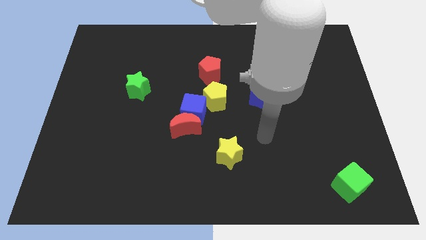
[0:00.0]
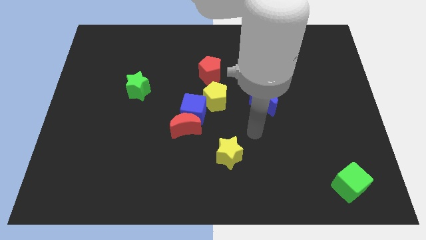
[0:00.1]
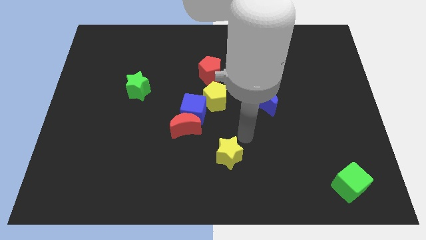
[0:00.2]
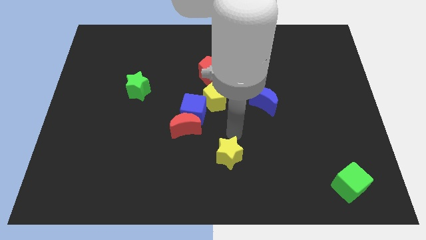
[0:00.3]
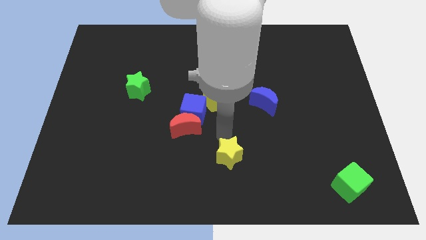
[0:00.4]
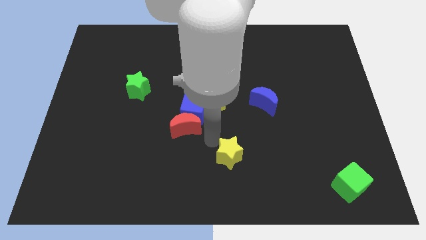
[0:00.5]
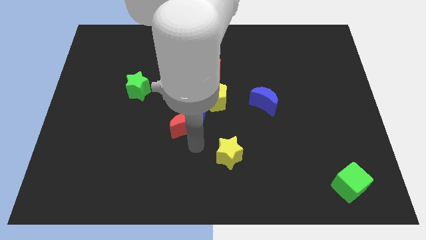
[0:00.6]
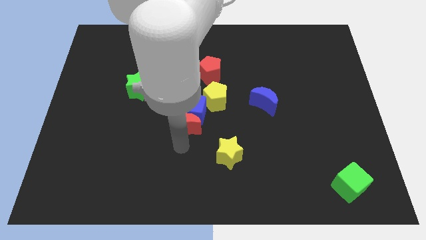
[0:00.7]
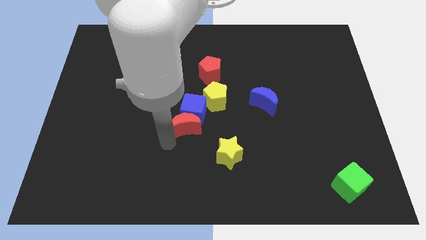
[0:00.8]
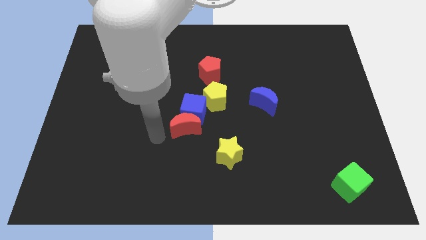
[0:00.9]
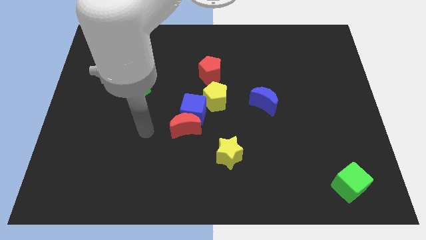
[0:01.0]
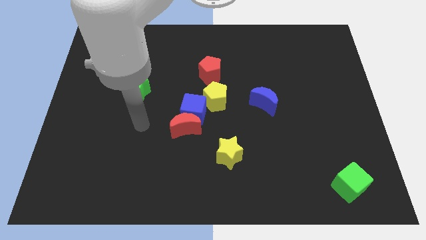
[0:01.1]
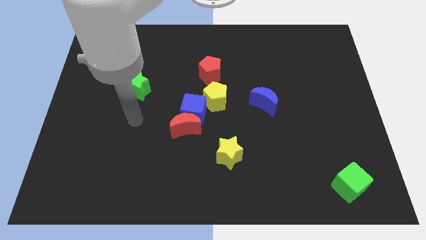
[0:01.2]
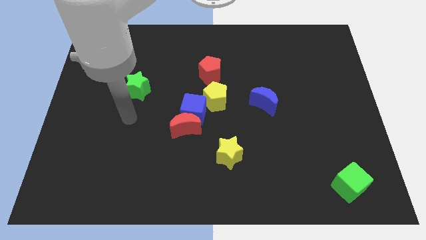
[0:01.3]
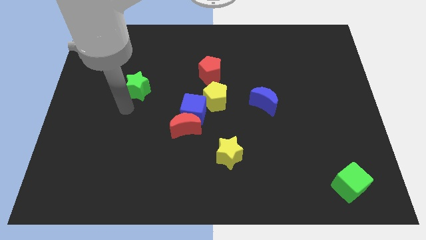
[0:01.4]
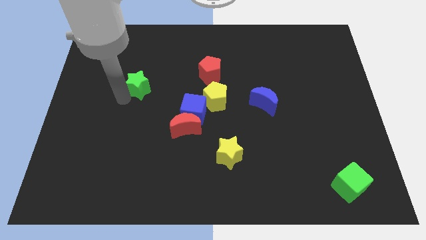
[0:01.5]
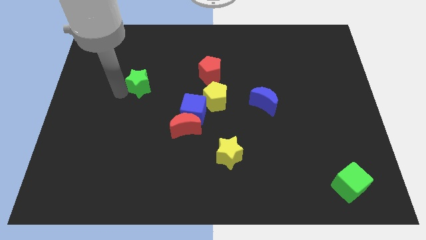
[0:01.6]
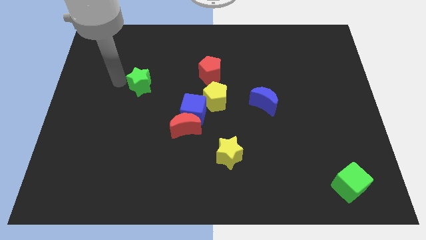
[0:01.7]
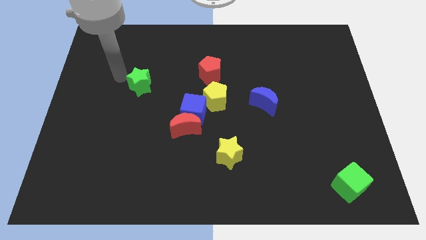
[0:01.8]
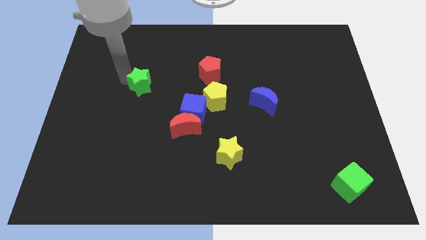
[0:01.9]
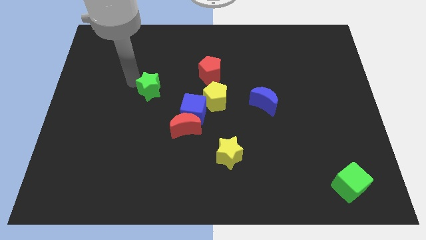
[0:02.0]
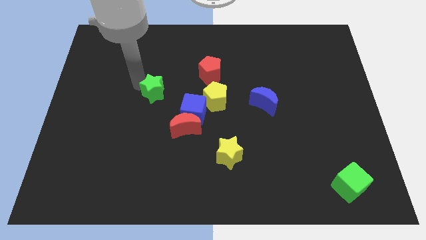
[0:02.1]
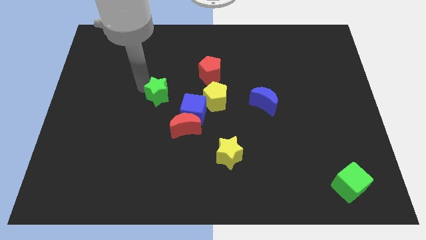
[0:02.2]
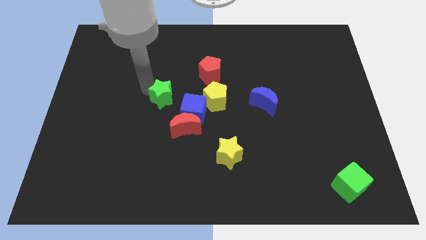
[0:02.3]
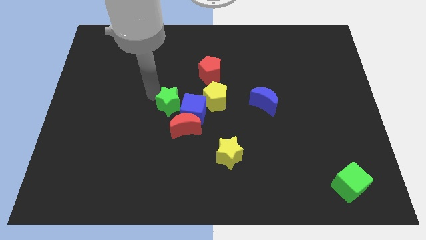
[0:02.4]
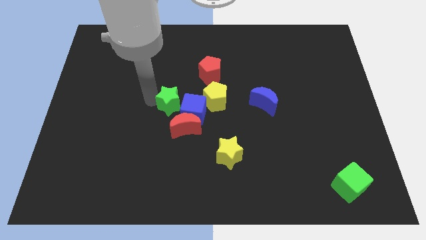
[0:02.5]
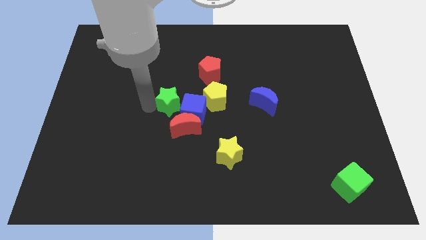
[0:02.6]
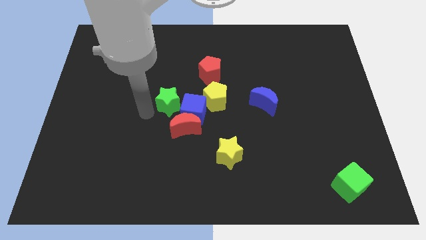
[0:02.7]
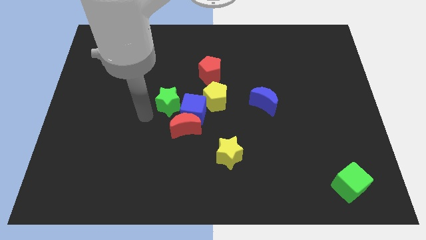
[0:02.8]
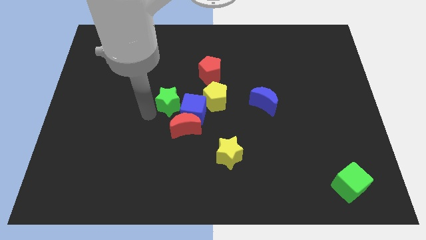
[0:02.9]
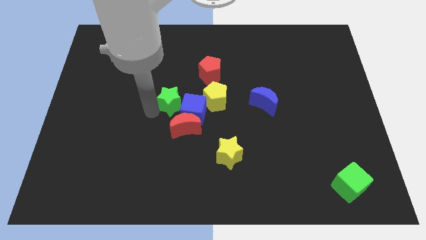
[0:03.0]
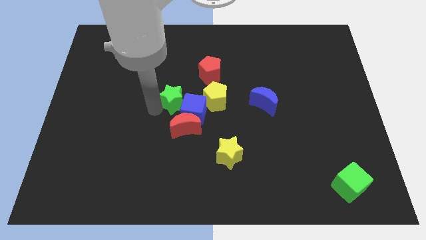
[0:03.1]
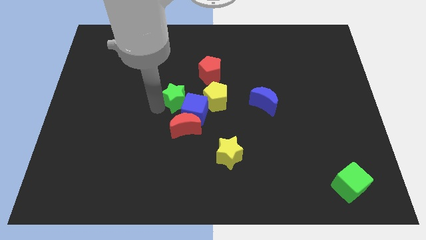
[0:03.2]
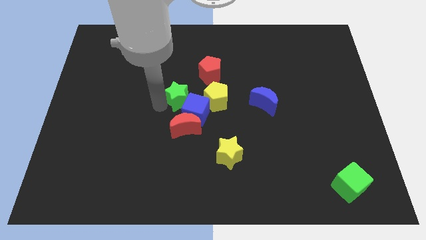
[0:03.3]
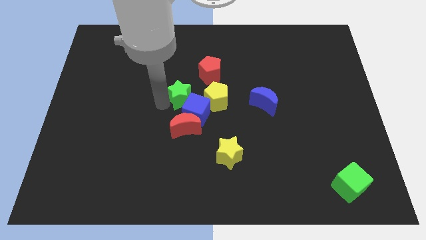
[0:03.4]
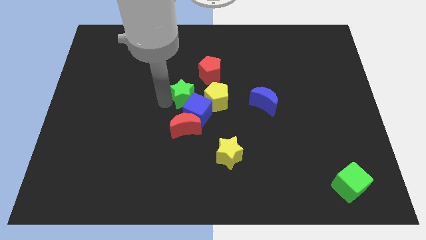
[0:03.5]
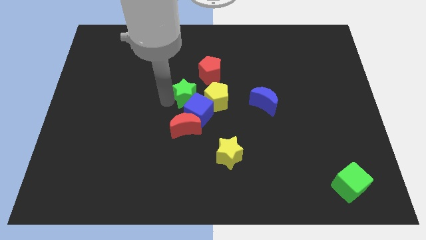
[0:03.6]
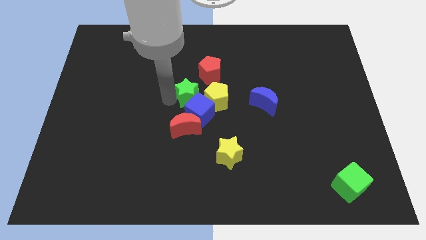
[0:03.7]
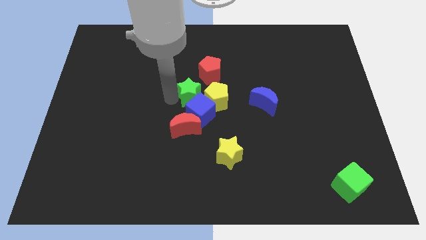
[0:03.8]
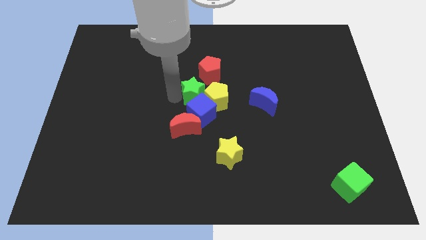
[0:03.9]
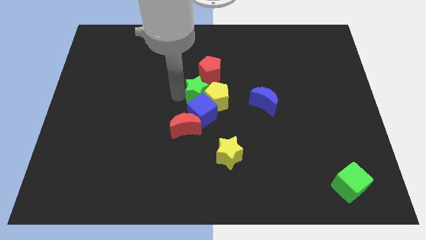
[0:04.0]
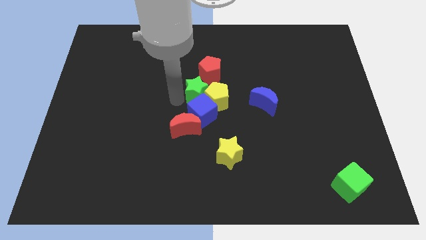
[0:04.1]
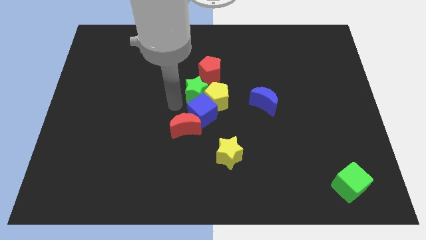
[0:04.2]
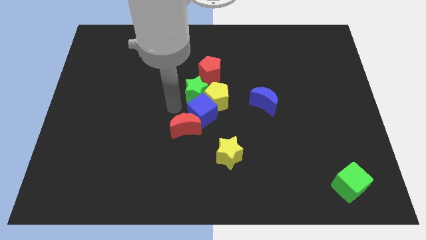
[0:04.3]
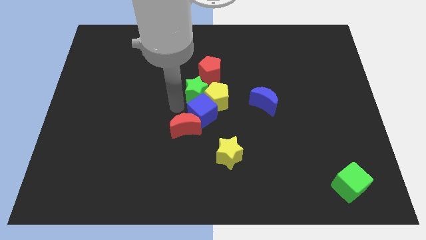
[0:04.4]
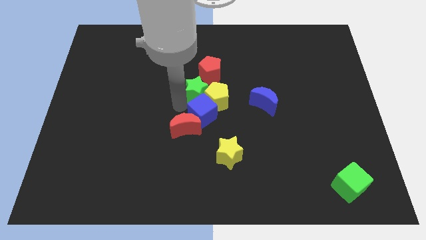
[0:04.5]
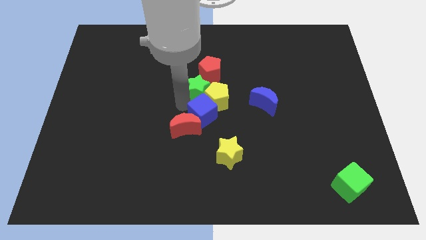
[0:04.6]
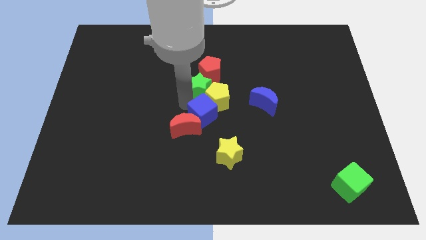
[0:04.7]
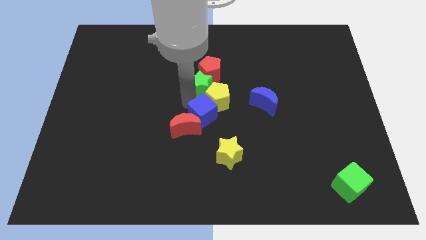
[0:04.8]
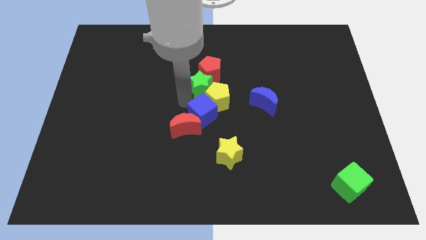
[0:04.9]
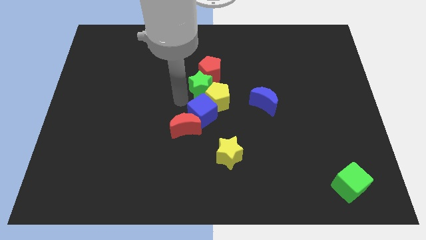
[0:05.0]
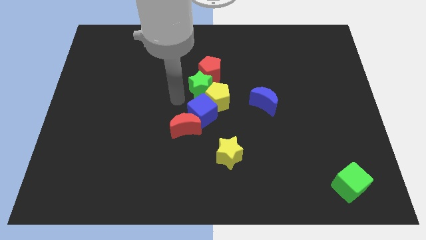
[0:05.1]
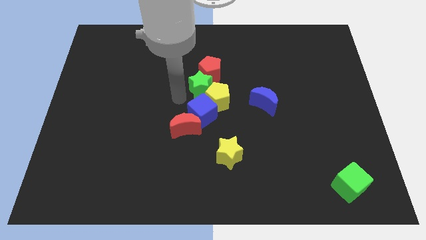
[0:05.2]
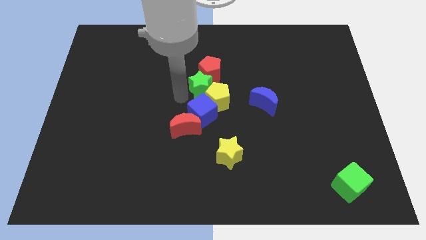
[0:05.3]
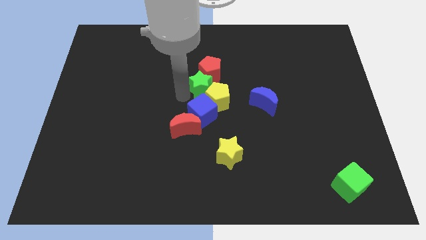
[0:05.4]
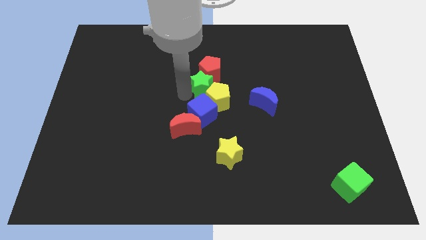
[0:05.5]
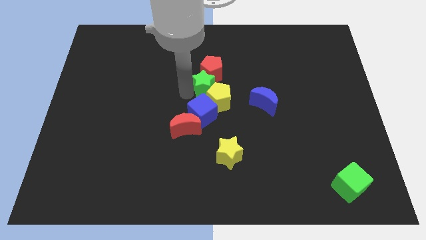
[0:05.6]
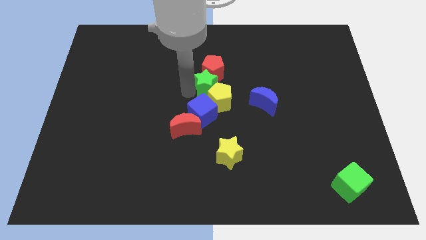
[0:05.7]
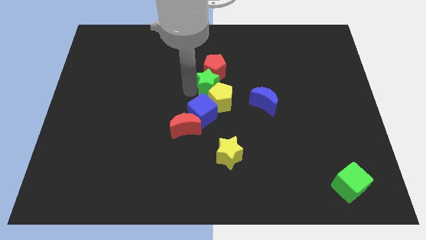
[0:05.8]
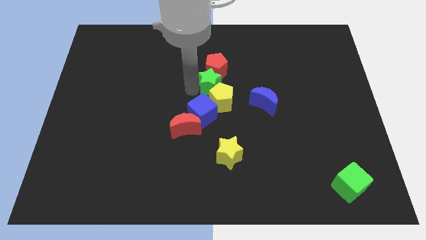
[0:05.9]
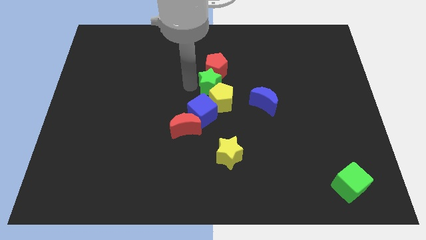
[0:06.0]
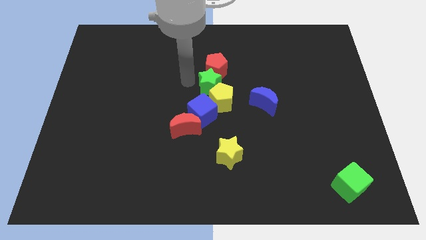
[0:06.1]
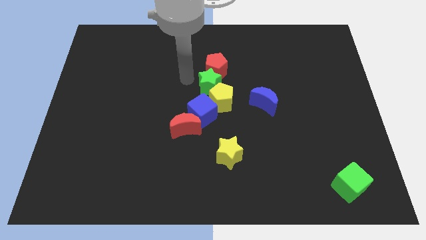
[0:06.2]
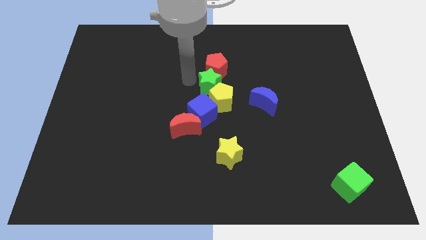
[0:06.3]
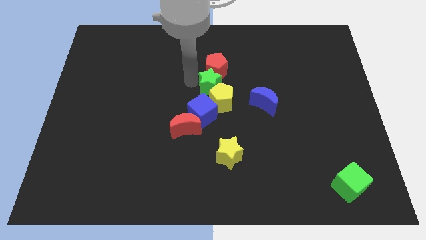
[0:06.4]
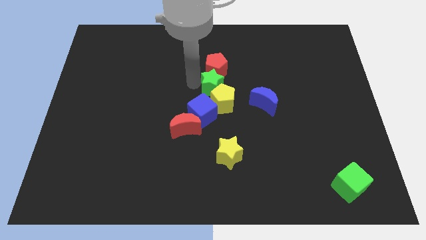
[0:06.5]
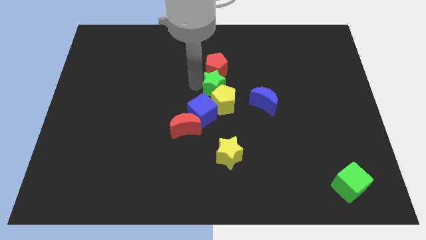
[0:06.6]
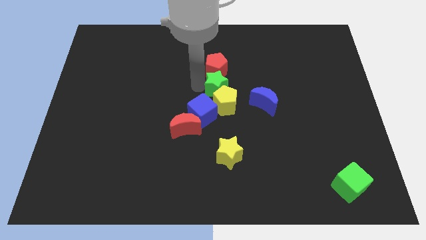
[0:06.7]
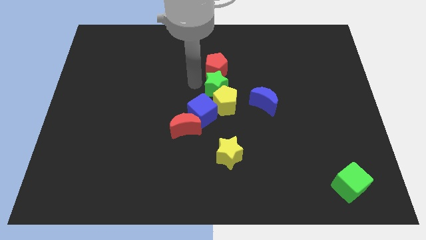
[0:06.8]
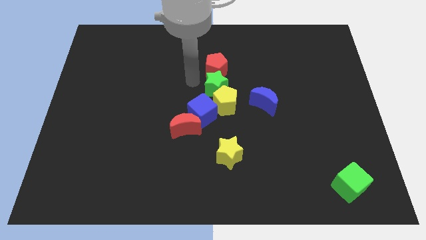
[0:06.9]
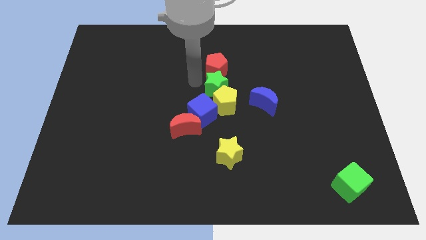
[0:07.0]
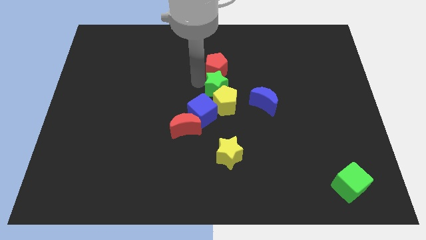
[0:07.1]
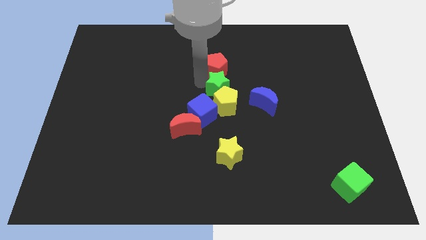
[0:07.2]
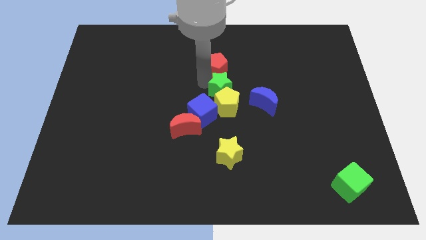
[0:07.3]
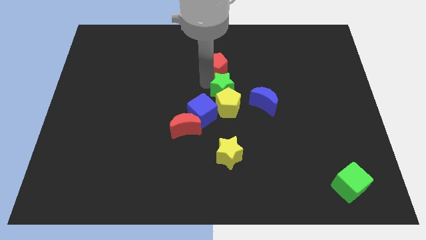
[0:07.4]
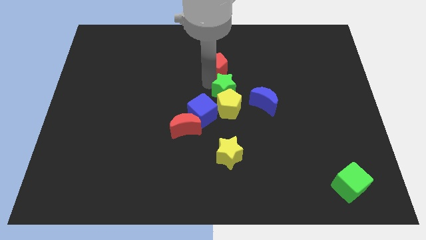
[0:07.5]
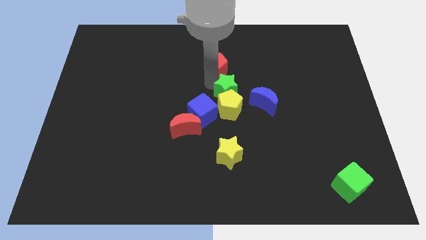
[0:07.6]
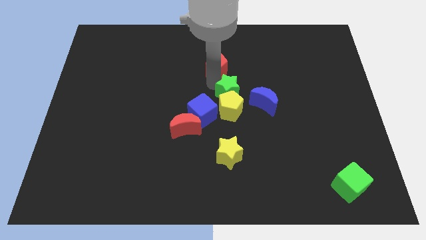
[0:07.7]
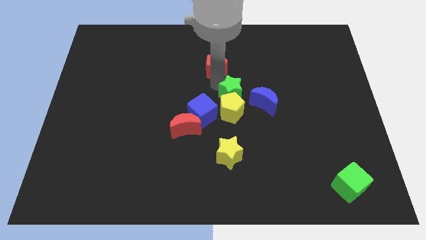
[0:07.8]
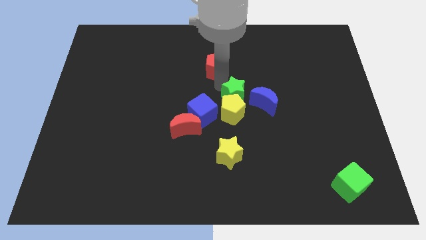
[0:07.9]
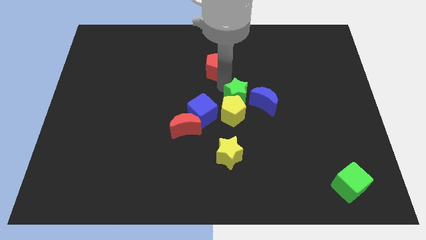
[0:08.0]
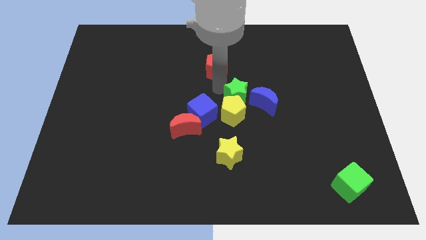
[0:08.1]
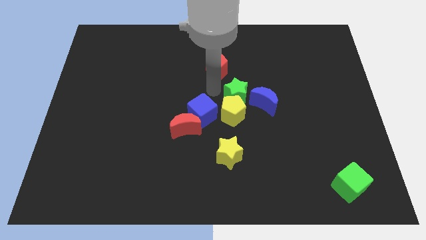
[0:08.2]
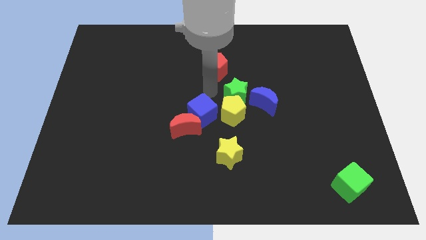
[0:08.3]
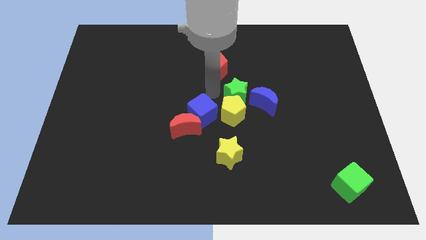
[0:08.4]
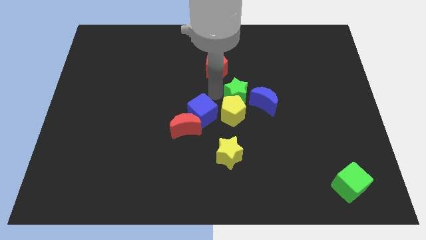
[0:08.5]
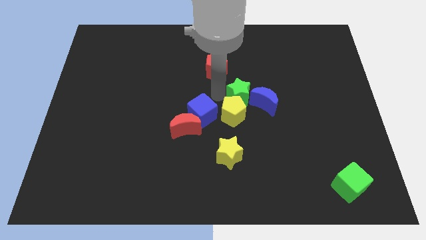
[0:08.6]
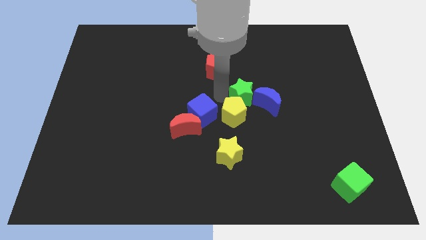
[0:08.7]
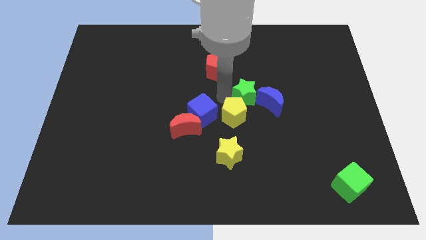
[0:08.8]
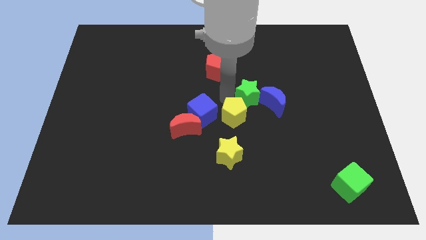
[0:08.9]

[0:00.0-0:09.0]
move the green star next to the blue moon
